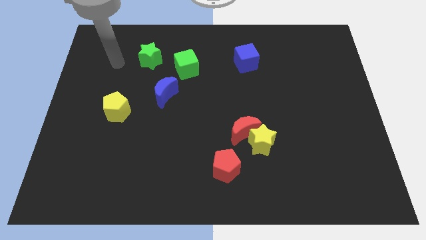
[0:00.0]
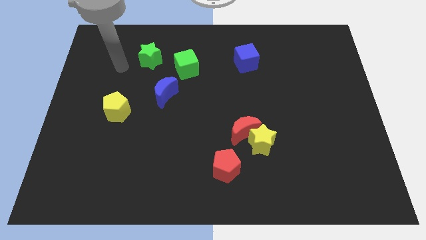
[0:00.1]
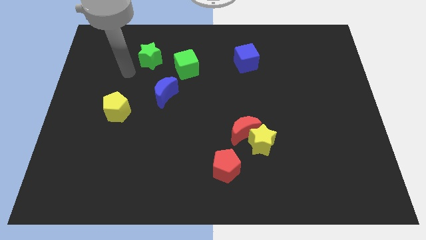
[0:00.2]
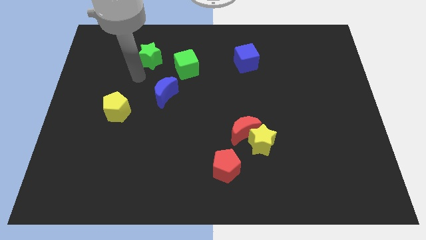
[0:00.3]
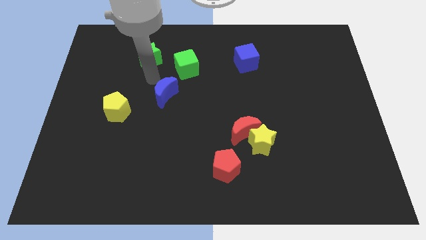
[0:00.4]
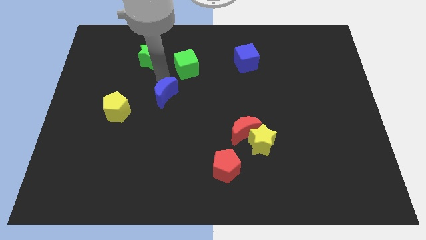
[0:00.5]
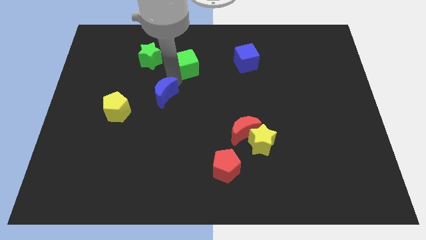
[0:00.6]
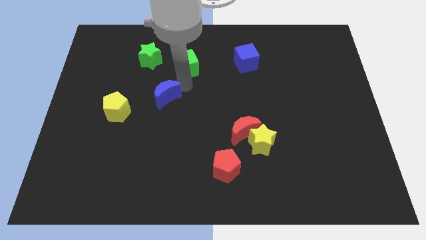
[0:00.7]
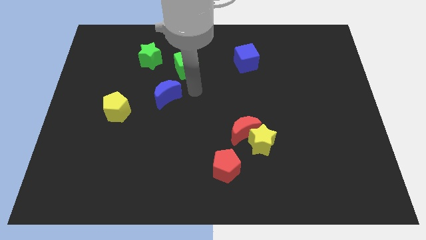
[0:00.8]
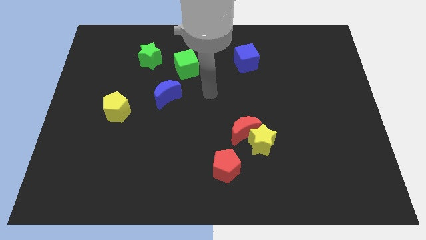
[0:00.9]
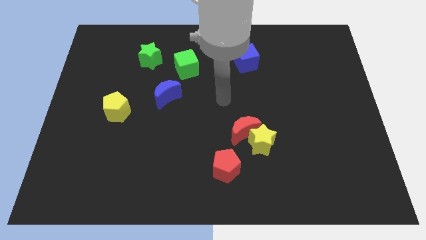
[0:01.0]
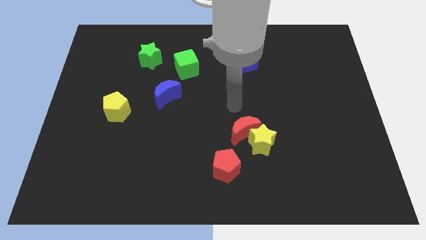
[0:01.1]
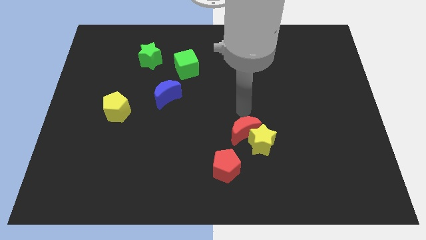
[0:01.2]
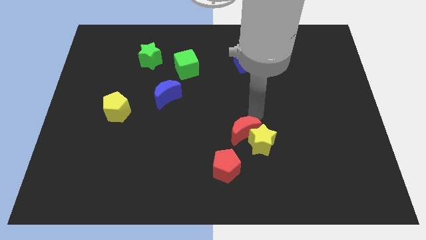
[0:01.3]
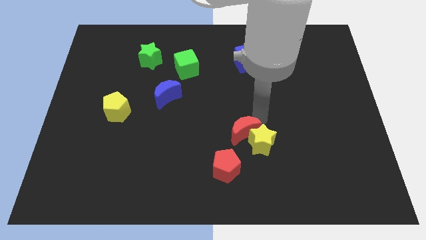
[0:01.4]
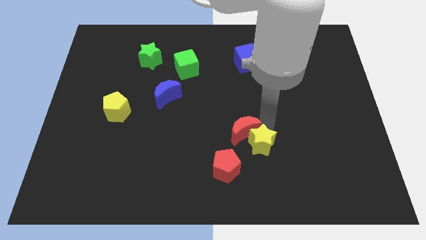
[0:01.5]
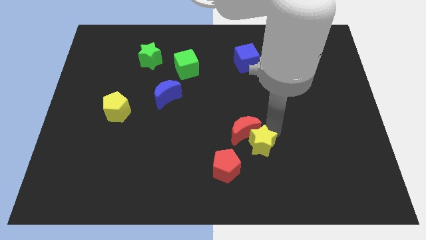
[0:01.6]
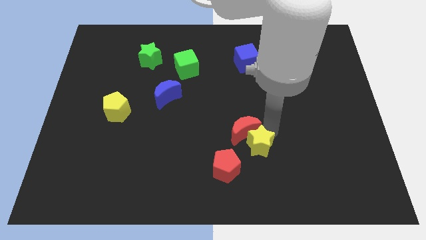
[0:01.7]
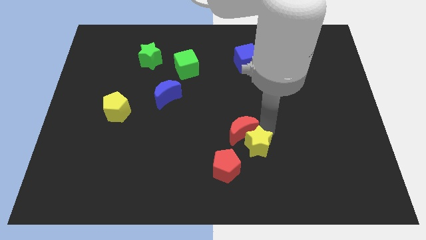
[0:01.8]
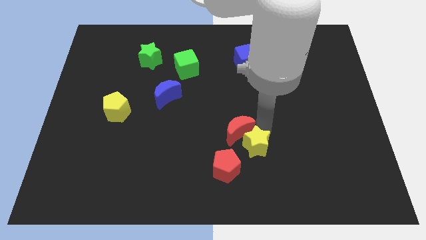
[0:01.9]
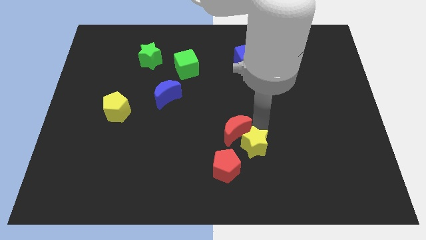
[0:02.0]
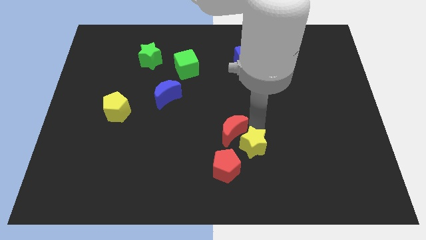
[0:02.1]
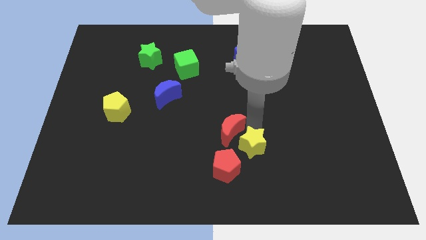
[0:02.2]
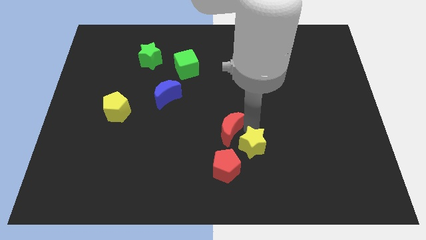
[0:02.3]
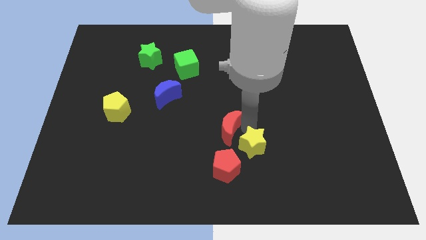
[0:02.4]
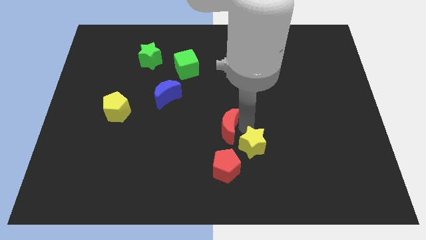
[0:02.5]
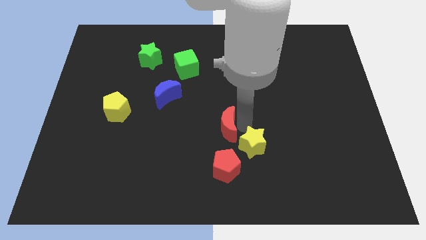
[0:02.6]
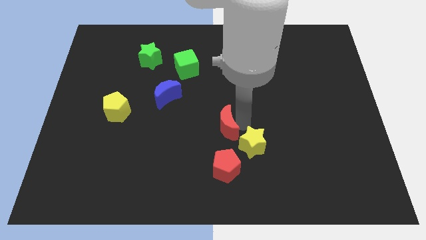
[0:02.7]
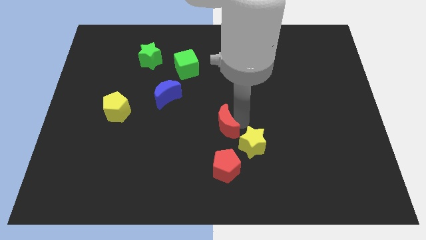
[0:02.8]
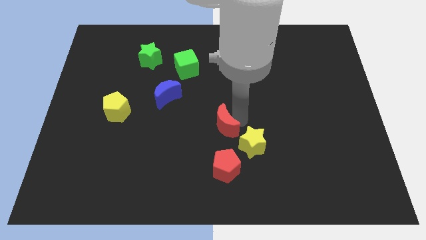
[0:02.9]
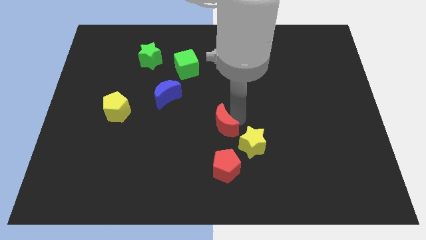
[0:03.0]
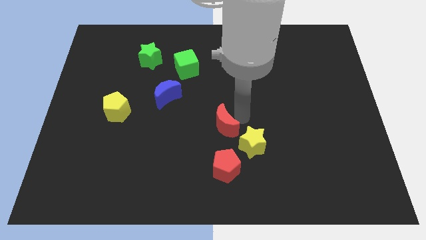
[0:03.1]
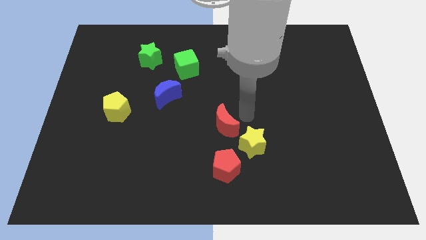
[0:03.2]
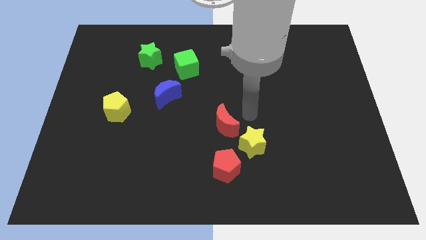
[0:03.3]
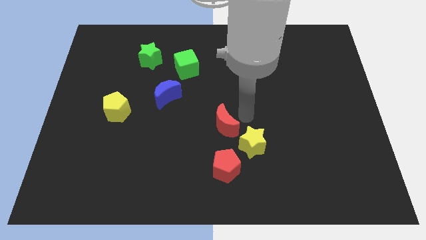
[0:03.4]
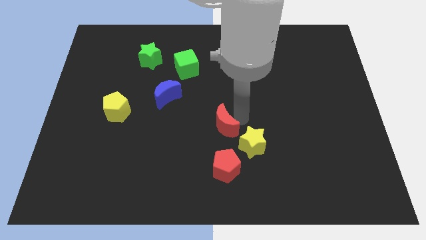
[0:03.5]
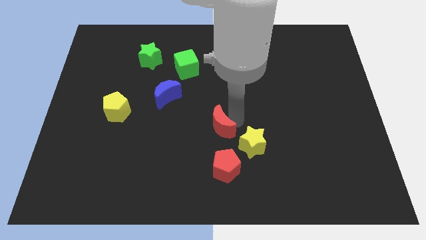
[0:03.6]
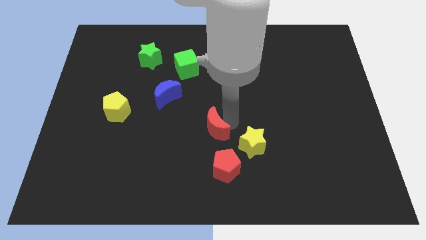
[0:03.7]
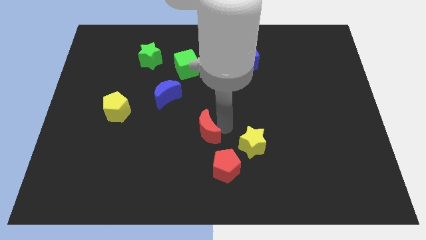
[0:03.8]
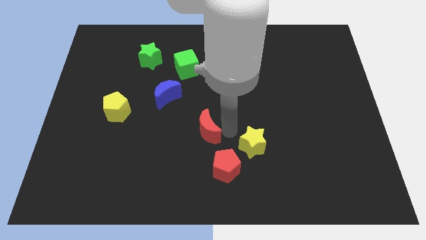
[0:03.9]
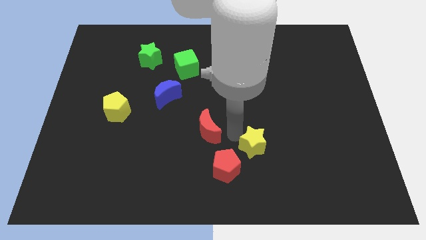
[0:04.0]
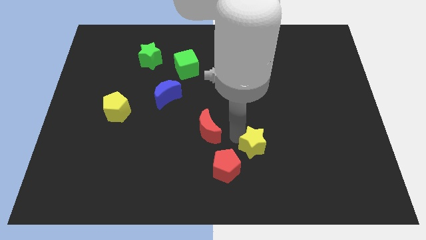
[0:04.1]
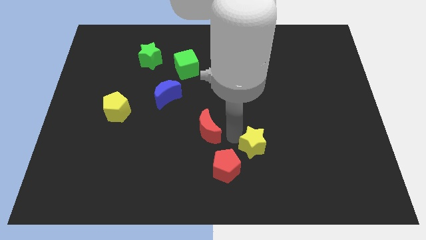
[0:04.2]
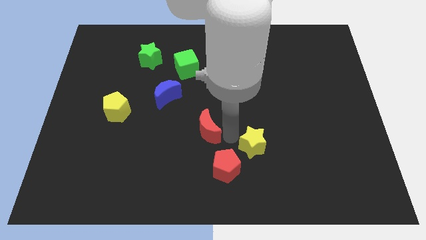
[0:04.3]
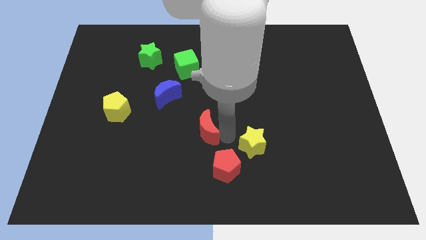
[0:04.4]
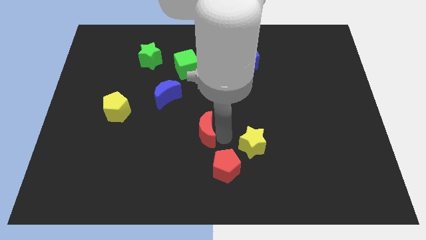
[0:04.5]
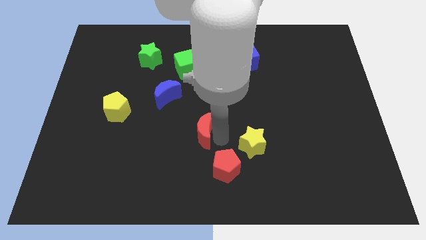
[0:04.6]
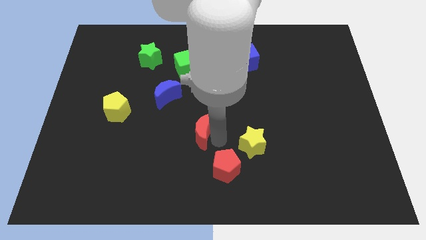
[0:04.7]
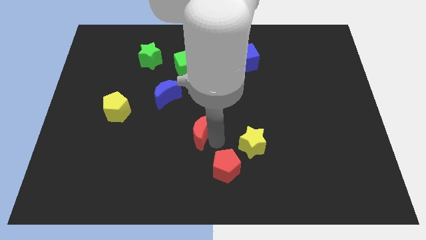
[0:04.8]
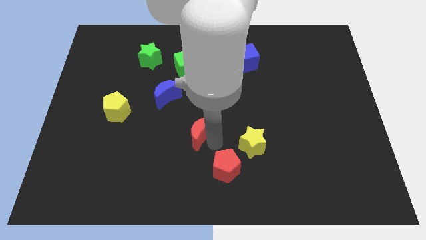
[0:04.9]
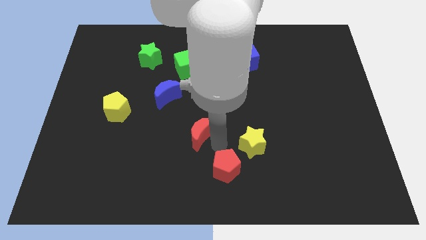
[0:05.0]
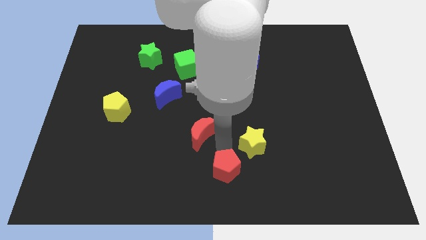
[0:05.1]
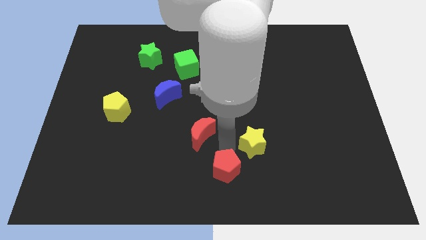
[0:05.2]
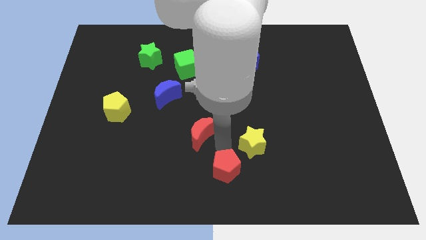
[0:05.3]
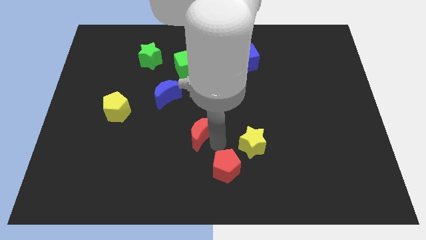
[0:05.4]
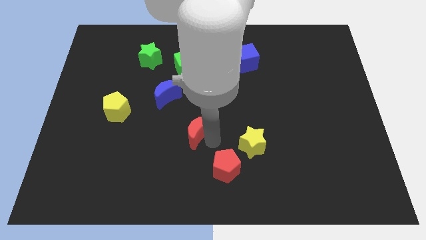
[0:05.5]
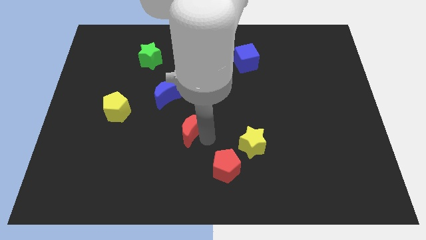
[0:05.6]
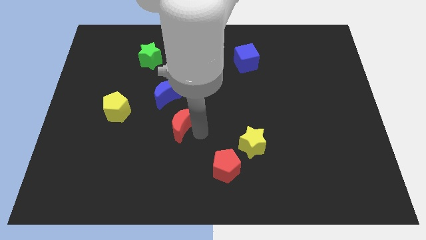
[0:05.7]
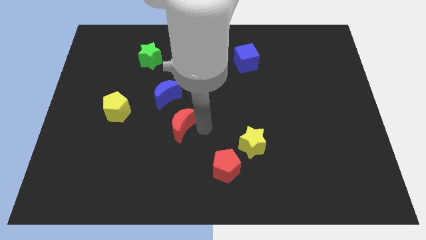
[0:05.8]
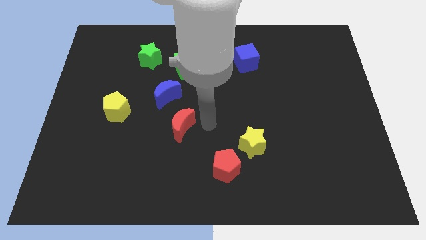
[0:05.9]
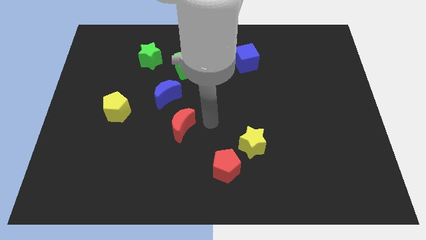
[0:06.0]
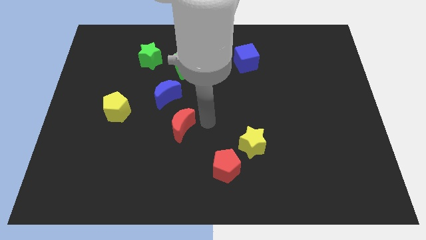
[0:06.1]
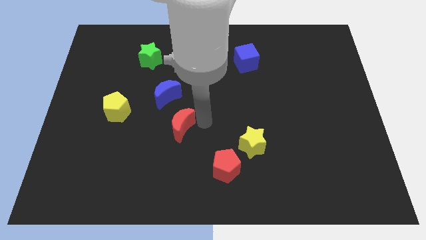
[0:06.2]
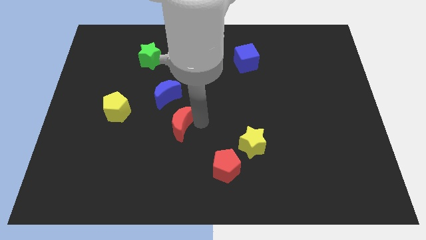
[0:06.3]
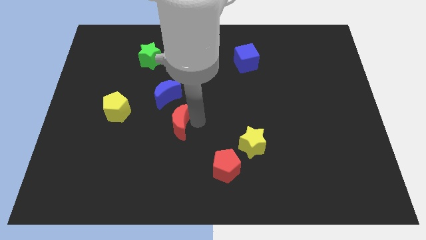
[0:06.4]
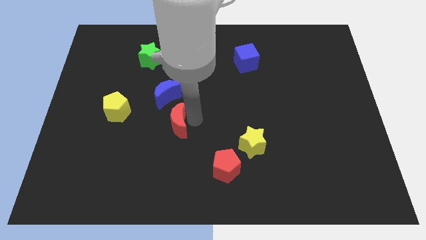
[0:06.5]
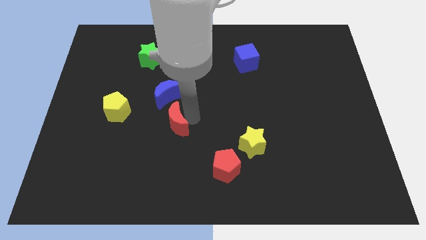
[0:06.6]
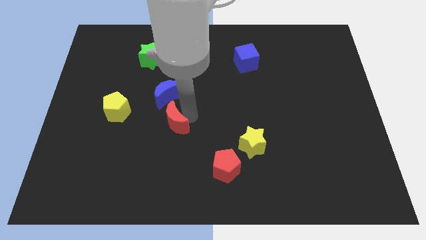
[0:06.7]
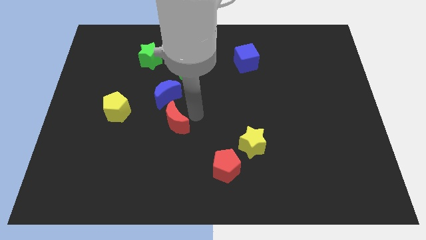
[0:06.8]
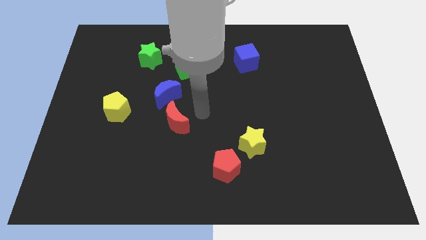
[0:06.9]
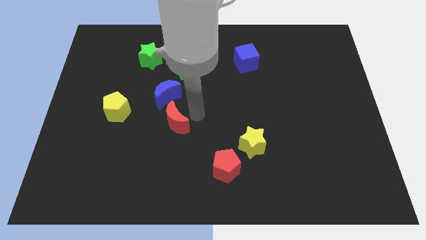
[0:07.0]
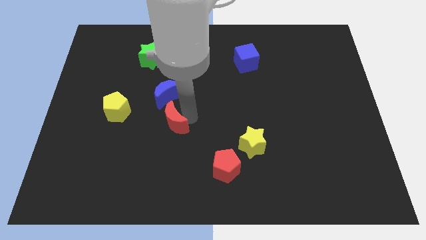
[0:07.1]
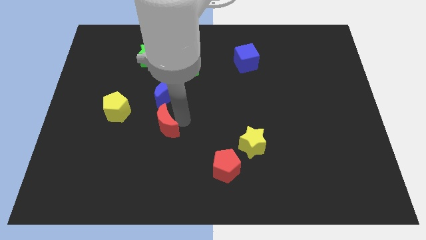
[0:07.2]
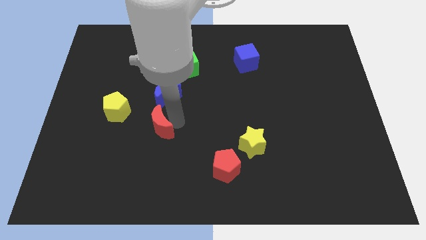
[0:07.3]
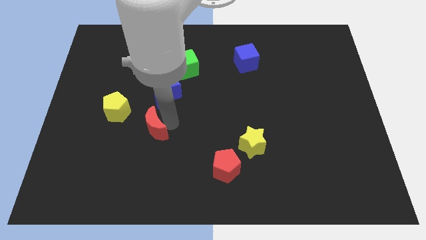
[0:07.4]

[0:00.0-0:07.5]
slide the red moon to the left

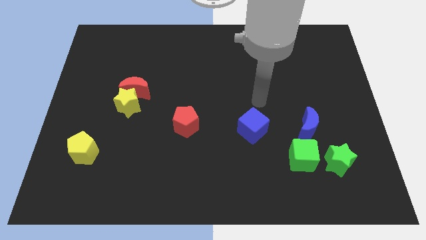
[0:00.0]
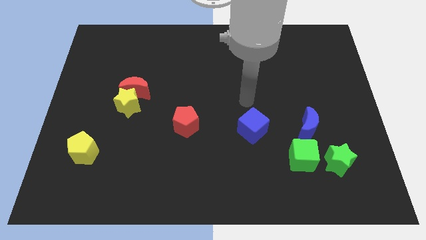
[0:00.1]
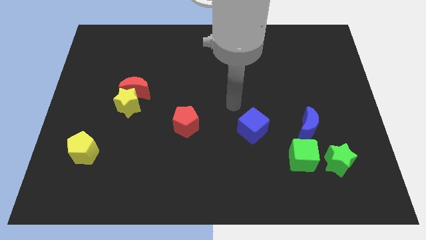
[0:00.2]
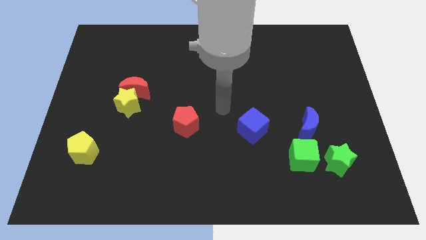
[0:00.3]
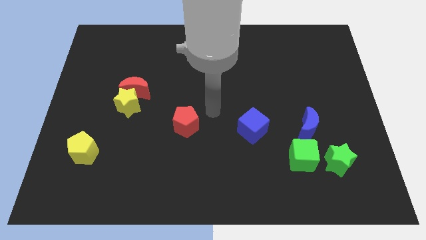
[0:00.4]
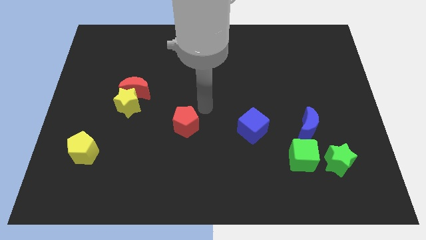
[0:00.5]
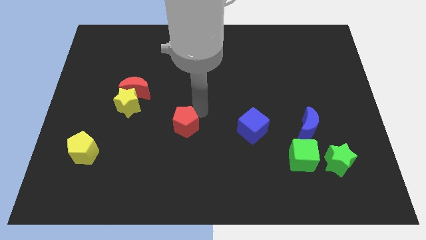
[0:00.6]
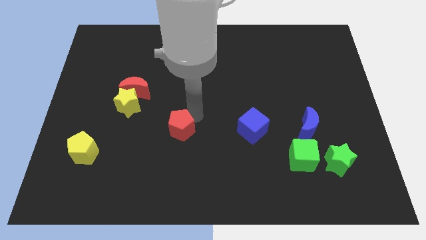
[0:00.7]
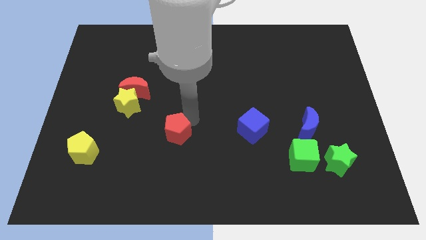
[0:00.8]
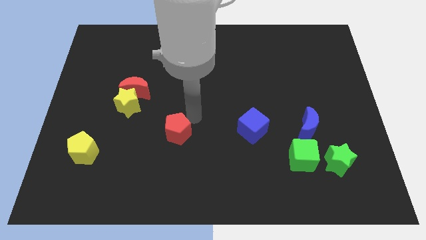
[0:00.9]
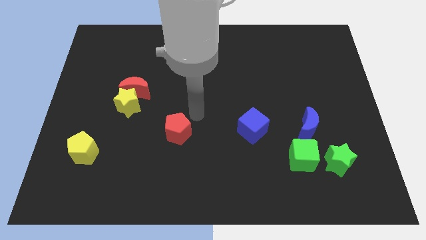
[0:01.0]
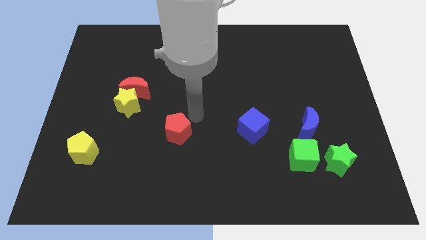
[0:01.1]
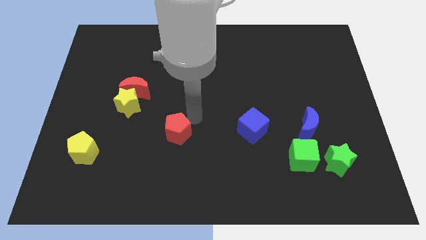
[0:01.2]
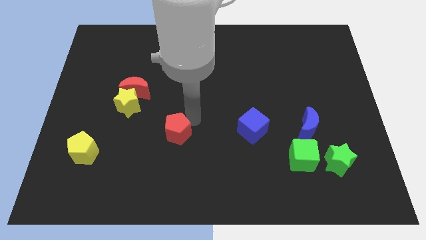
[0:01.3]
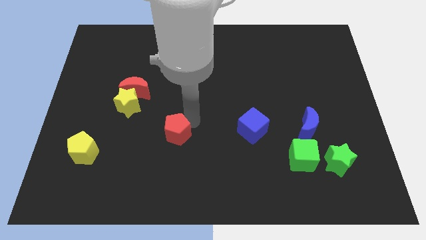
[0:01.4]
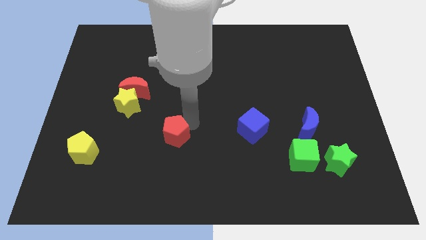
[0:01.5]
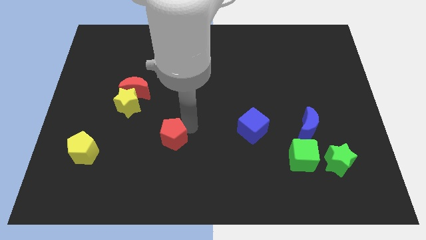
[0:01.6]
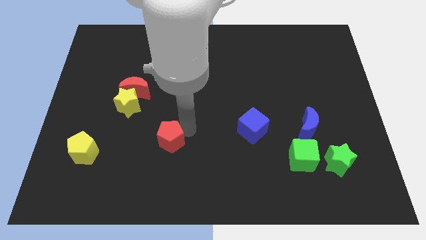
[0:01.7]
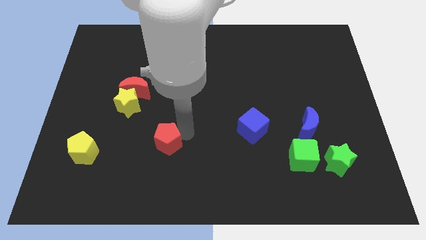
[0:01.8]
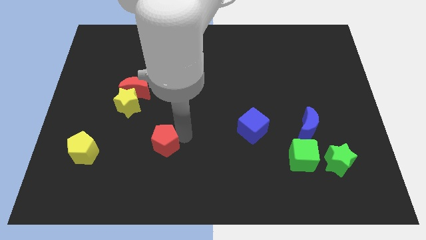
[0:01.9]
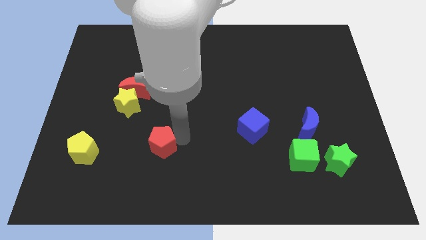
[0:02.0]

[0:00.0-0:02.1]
slightly move the red pentagon downwards and then to the left
